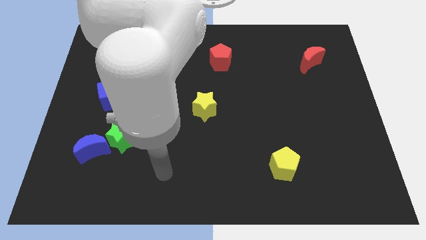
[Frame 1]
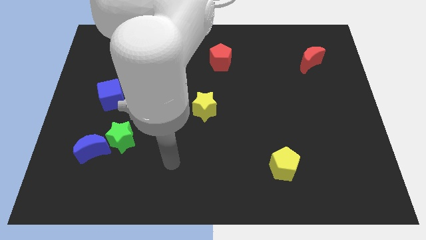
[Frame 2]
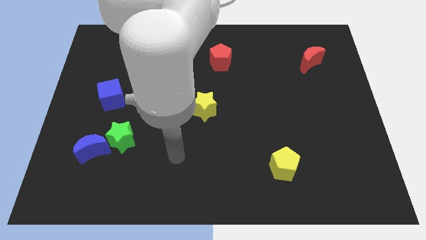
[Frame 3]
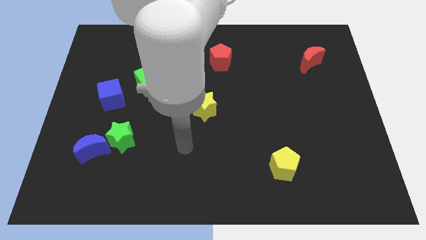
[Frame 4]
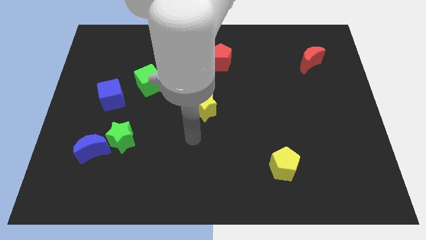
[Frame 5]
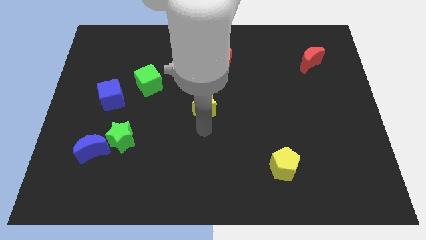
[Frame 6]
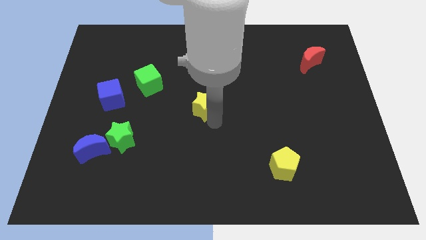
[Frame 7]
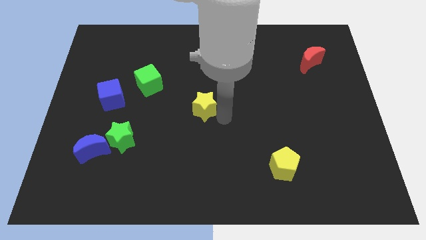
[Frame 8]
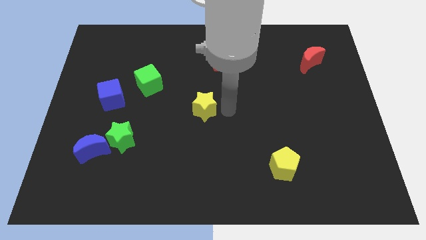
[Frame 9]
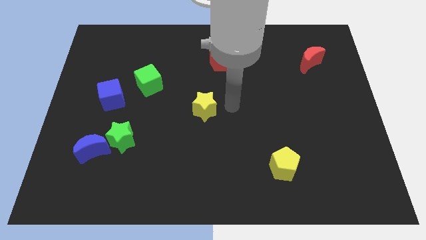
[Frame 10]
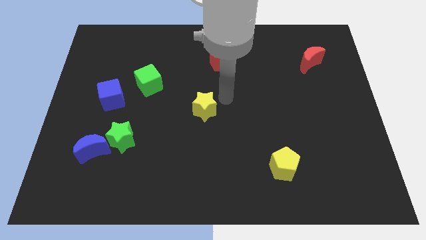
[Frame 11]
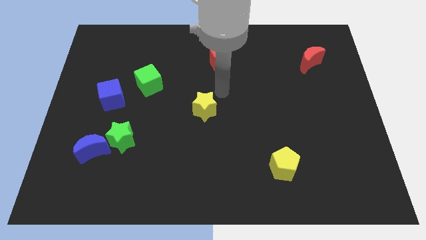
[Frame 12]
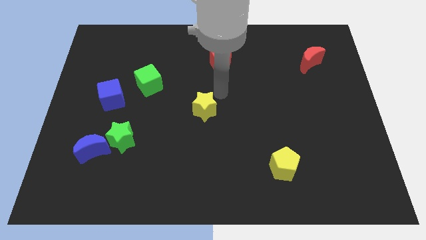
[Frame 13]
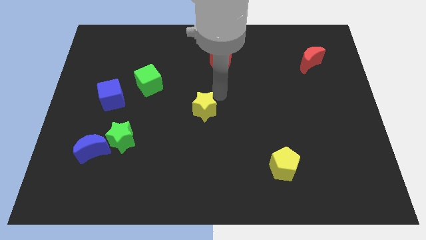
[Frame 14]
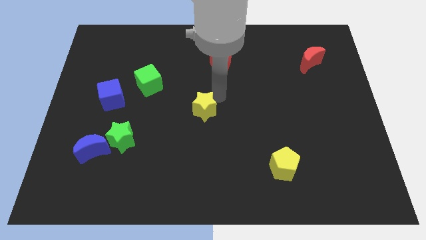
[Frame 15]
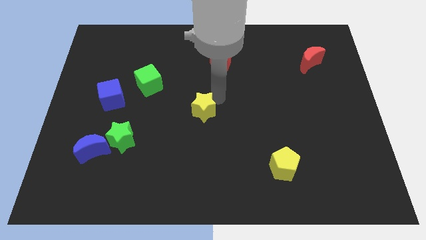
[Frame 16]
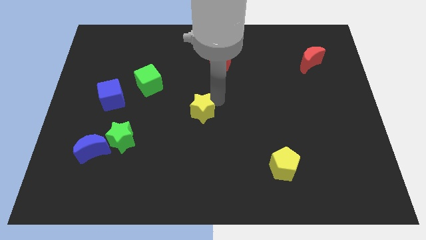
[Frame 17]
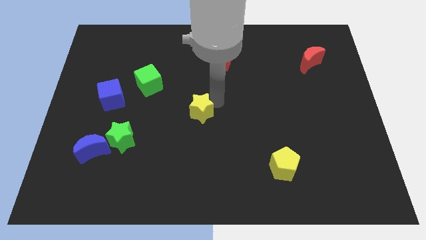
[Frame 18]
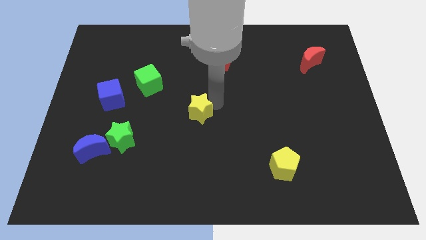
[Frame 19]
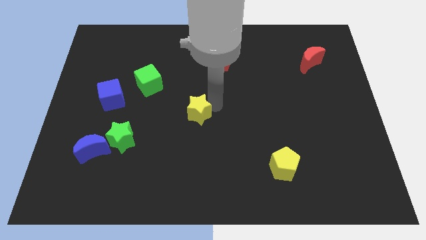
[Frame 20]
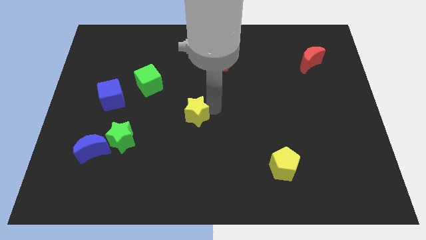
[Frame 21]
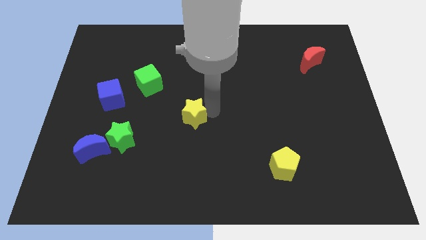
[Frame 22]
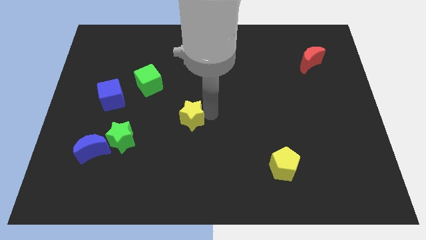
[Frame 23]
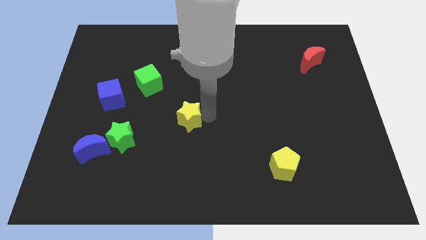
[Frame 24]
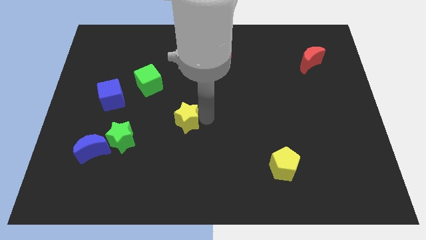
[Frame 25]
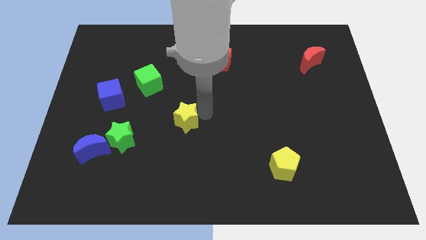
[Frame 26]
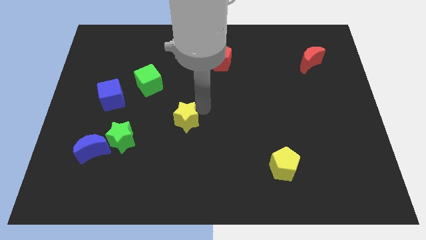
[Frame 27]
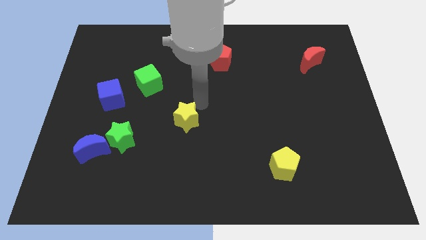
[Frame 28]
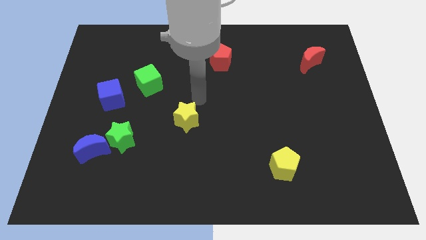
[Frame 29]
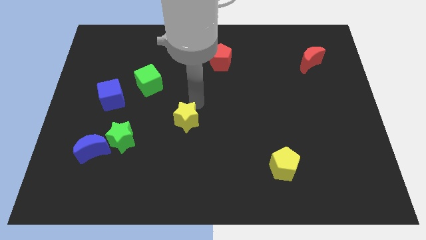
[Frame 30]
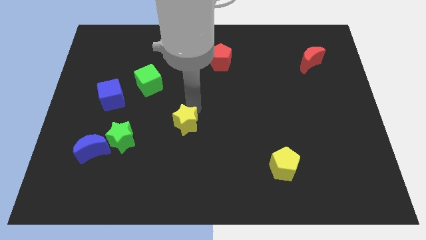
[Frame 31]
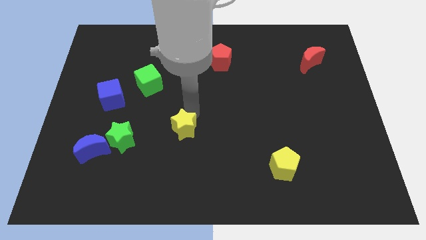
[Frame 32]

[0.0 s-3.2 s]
move the yellow star a bit down and then left

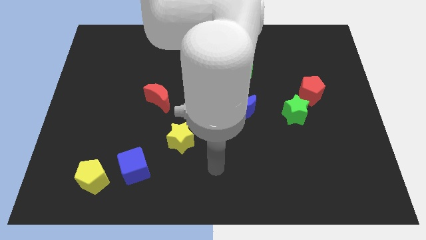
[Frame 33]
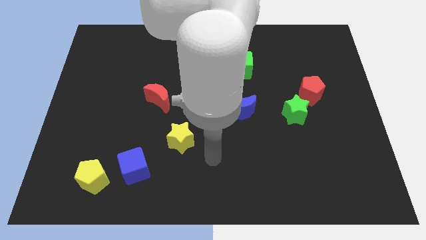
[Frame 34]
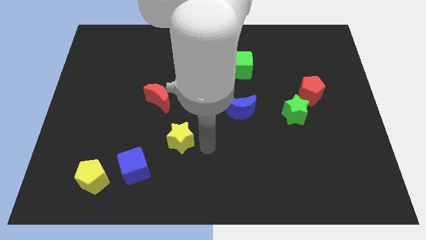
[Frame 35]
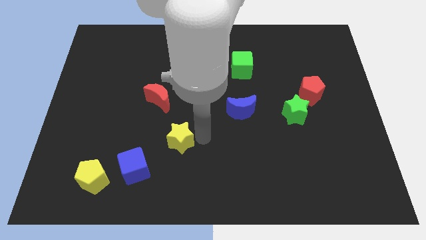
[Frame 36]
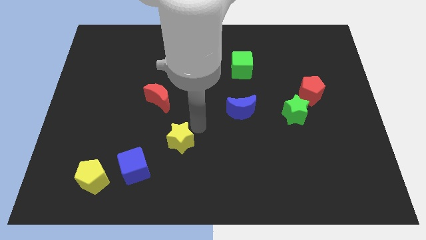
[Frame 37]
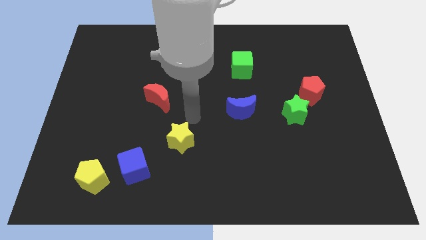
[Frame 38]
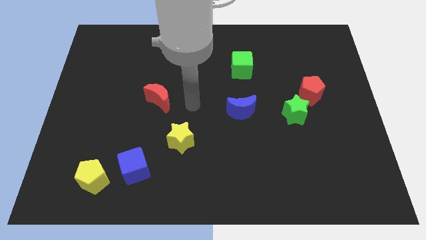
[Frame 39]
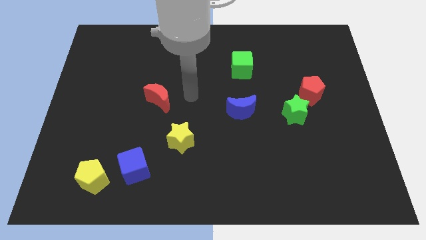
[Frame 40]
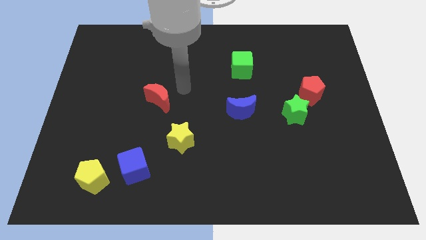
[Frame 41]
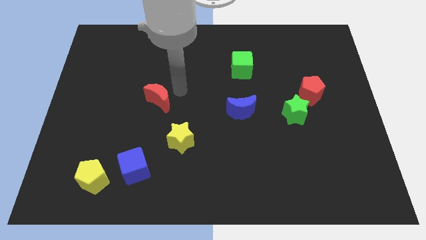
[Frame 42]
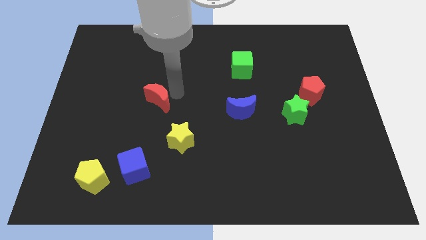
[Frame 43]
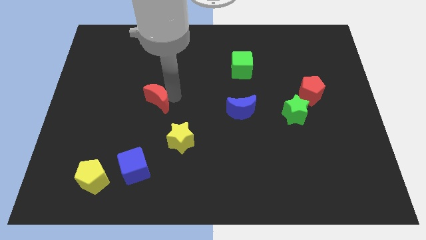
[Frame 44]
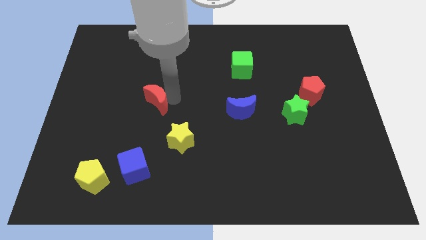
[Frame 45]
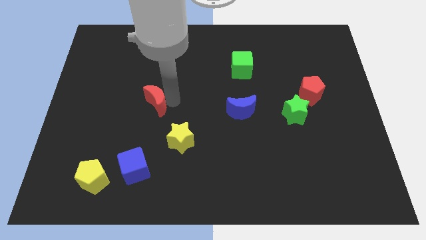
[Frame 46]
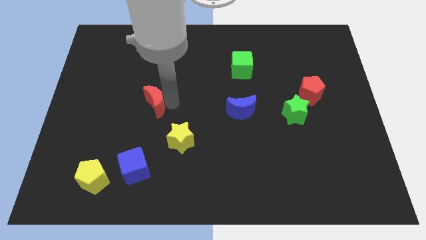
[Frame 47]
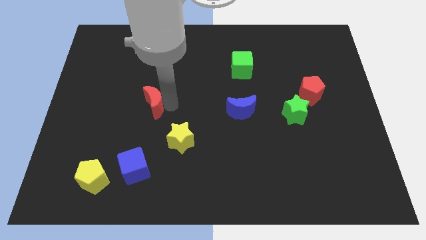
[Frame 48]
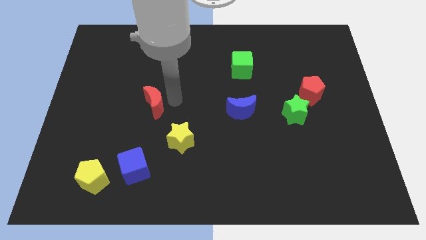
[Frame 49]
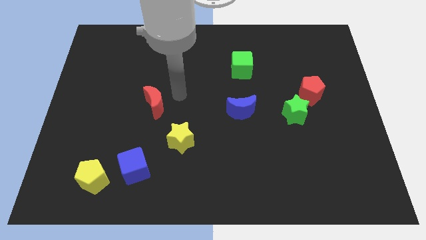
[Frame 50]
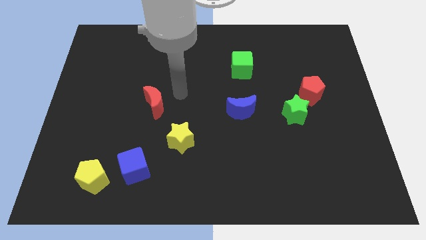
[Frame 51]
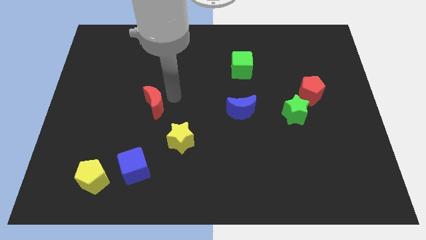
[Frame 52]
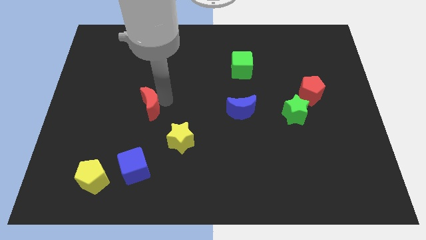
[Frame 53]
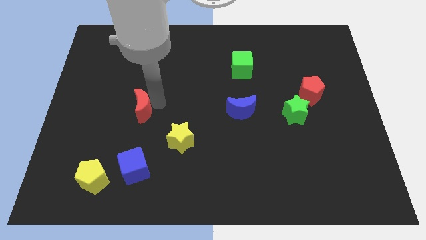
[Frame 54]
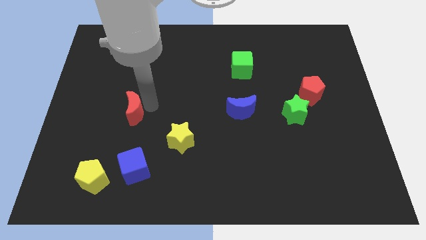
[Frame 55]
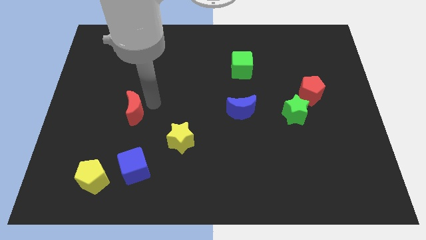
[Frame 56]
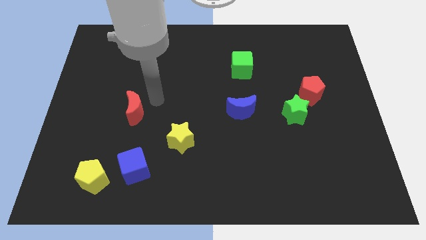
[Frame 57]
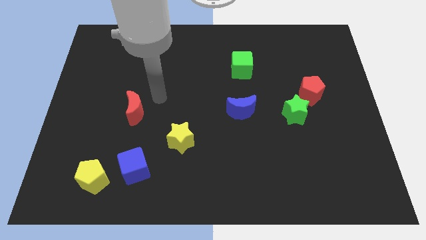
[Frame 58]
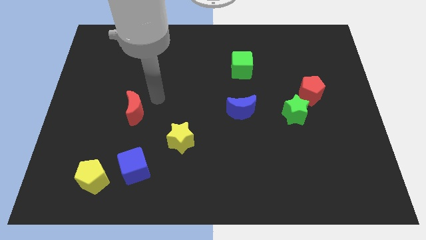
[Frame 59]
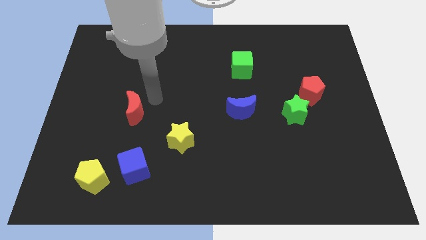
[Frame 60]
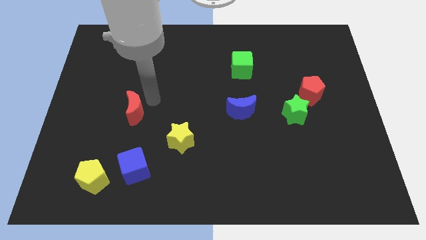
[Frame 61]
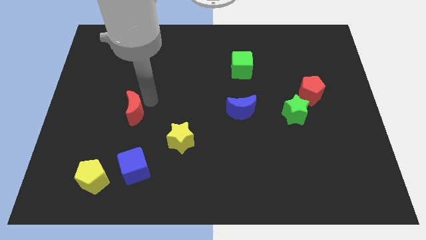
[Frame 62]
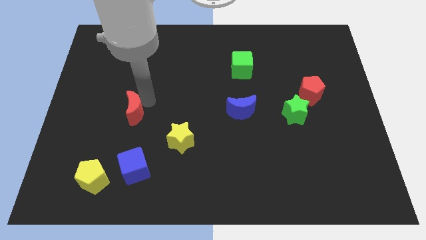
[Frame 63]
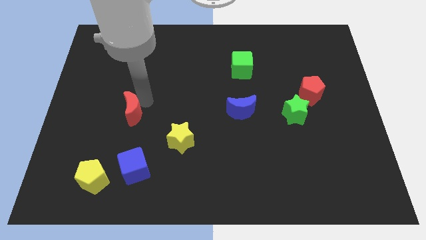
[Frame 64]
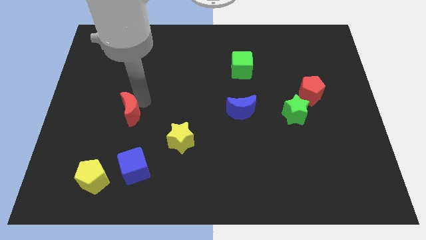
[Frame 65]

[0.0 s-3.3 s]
slightly push the red moon downwards and to the left diagonally

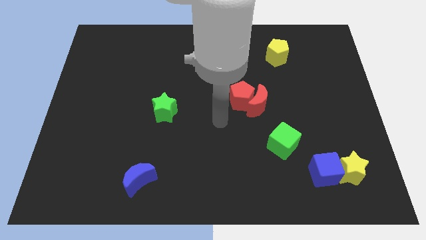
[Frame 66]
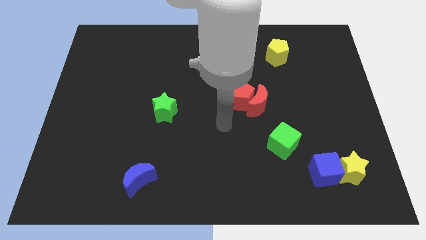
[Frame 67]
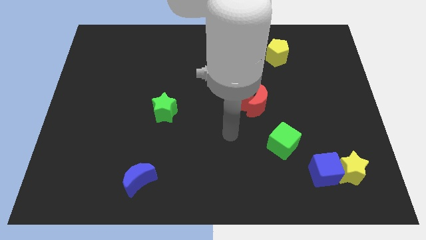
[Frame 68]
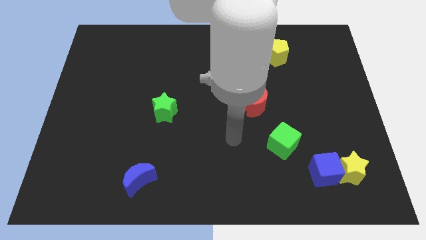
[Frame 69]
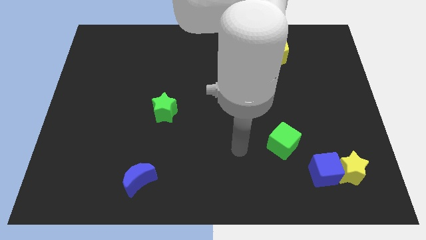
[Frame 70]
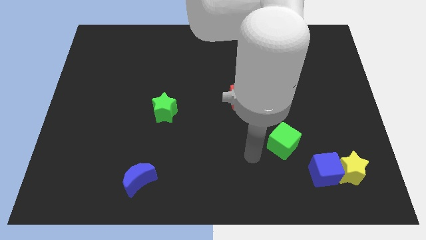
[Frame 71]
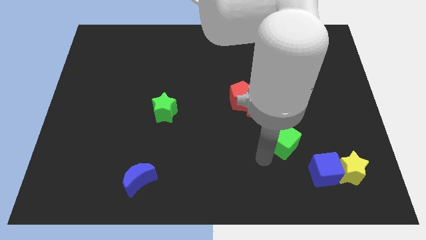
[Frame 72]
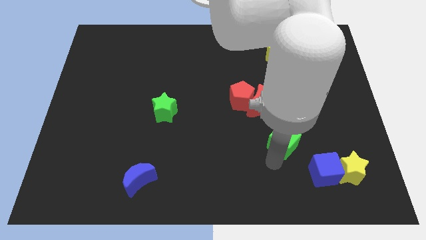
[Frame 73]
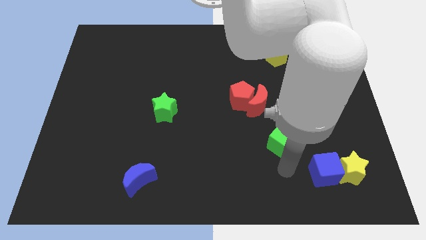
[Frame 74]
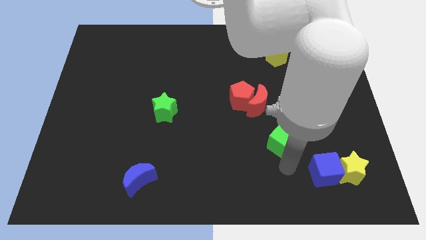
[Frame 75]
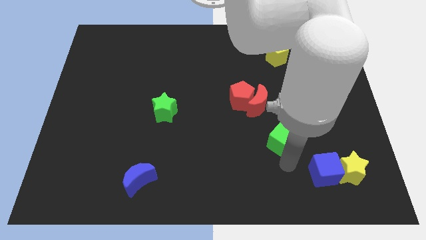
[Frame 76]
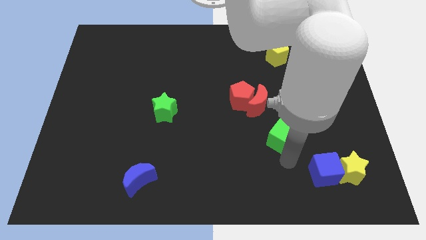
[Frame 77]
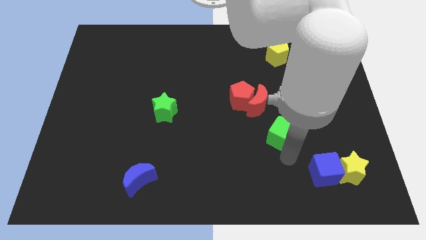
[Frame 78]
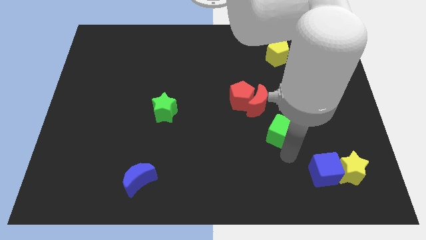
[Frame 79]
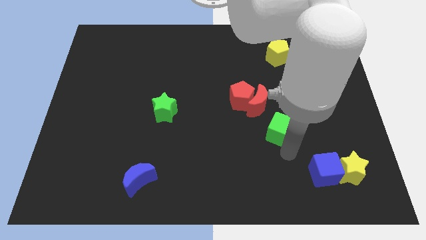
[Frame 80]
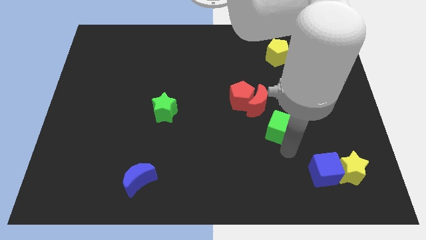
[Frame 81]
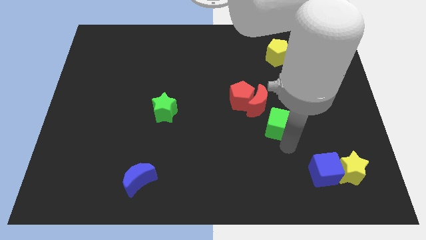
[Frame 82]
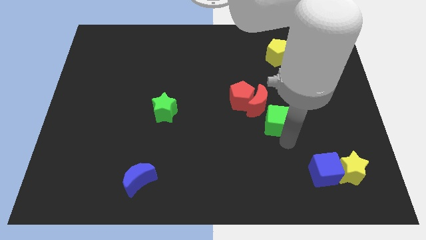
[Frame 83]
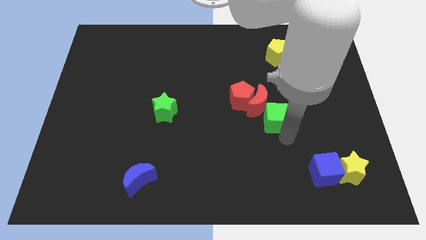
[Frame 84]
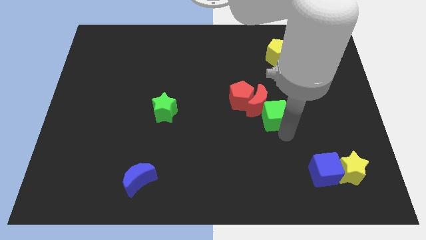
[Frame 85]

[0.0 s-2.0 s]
slide the green cube a bit up
